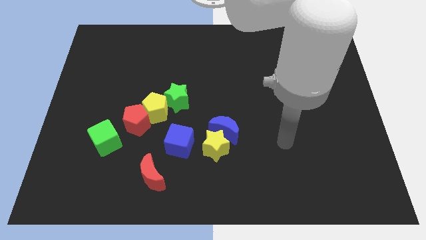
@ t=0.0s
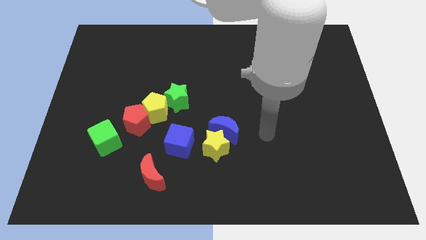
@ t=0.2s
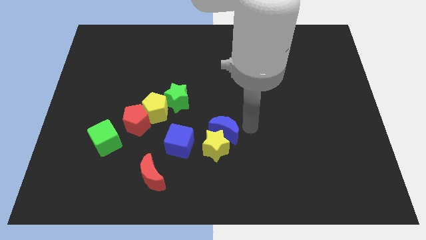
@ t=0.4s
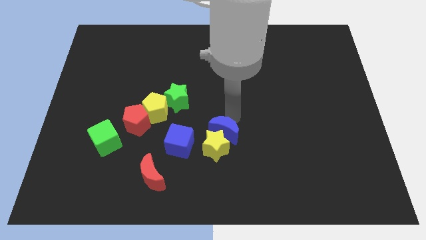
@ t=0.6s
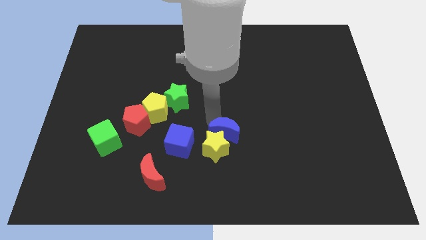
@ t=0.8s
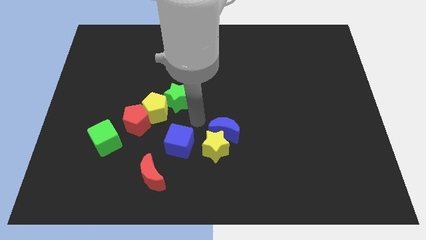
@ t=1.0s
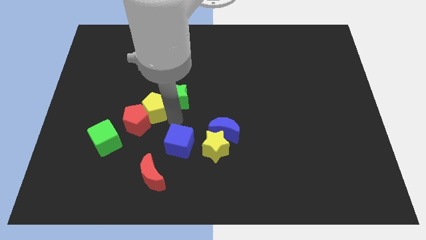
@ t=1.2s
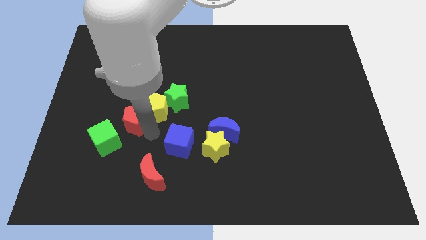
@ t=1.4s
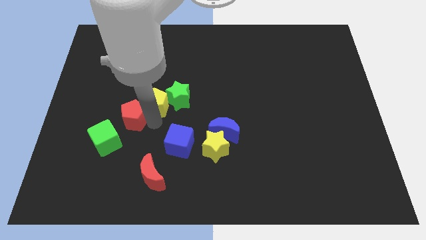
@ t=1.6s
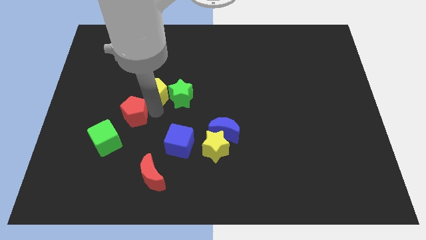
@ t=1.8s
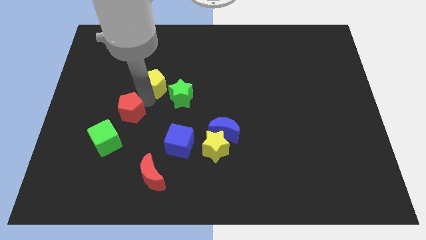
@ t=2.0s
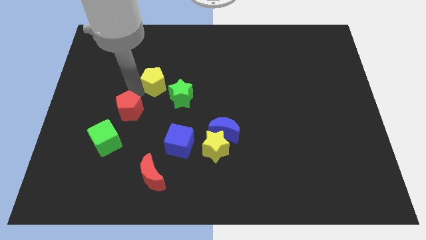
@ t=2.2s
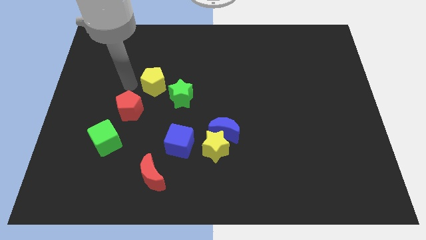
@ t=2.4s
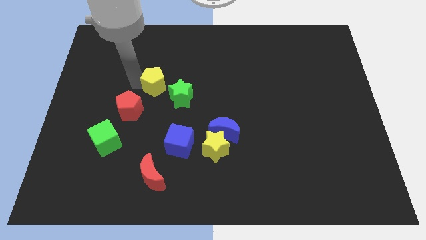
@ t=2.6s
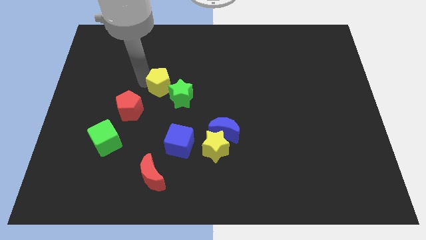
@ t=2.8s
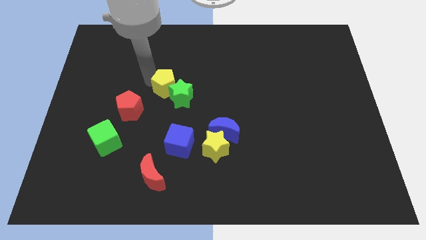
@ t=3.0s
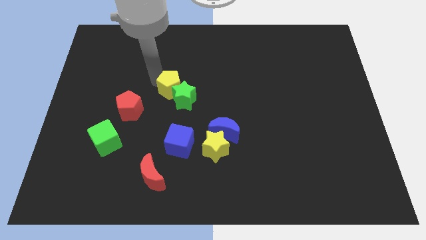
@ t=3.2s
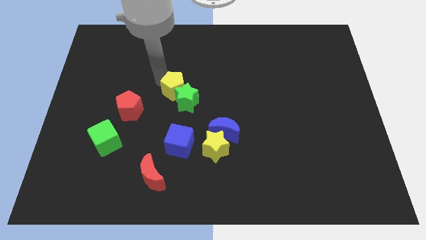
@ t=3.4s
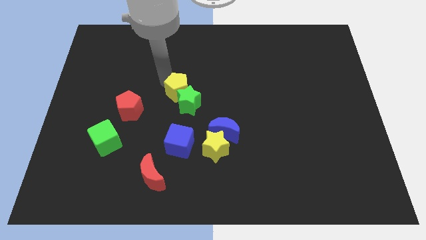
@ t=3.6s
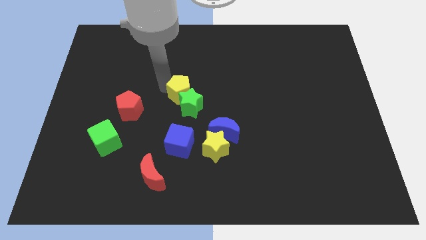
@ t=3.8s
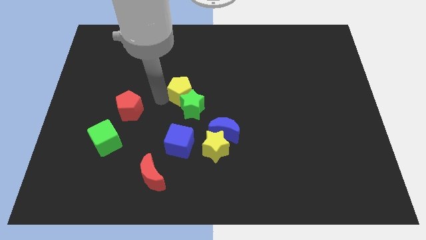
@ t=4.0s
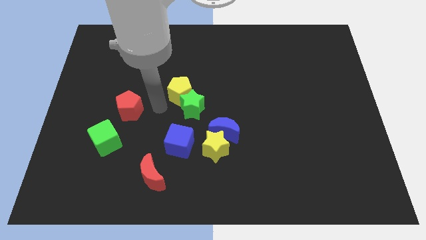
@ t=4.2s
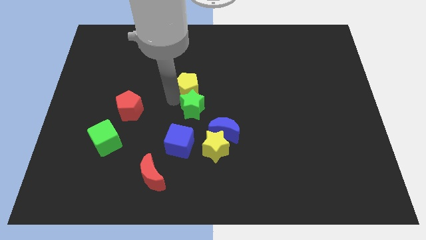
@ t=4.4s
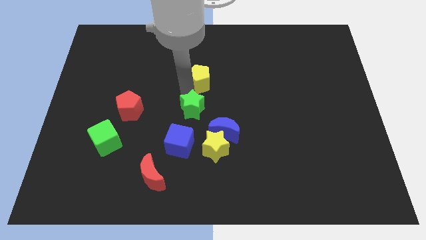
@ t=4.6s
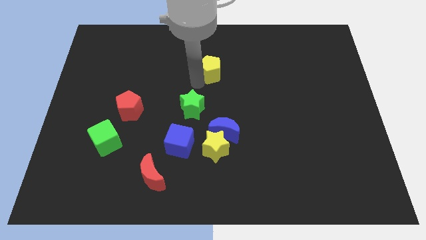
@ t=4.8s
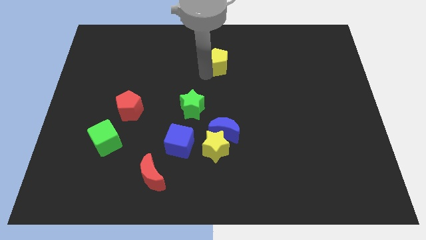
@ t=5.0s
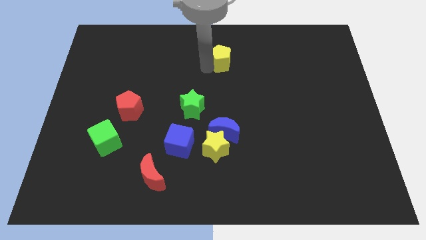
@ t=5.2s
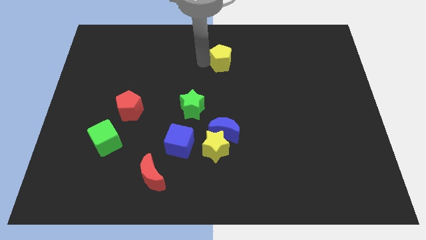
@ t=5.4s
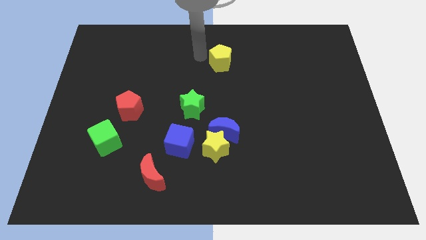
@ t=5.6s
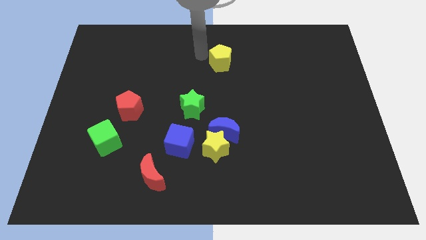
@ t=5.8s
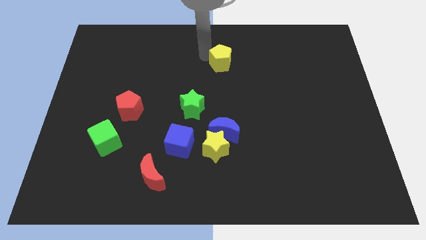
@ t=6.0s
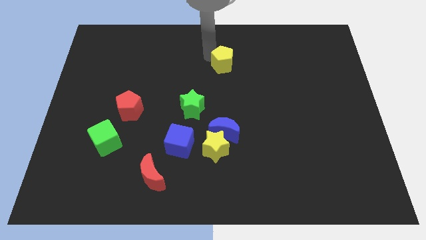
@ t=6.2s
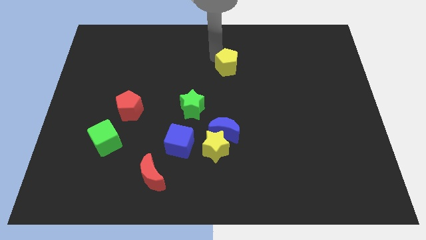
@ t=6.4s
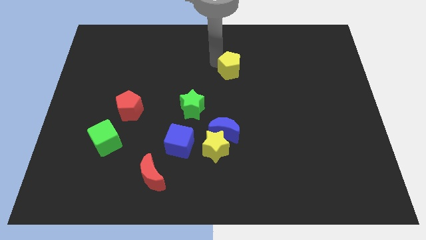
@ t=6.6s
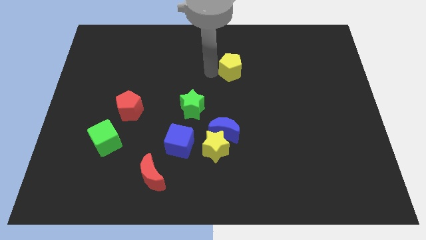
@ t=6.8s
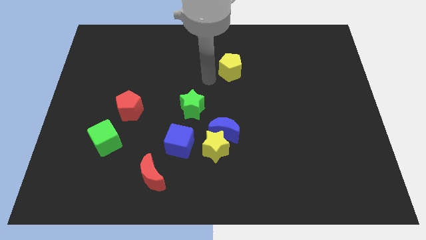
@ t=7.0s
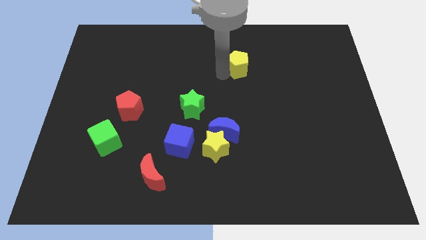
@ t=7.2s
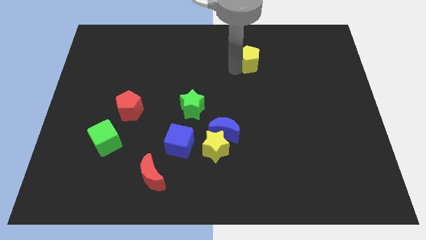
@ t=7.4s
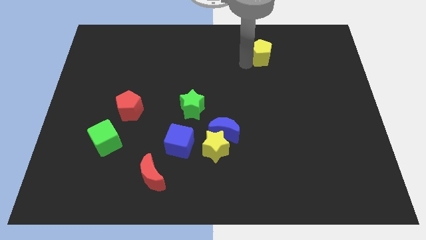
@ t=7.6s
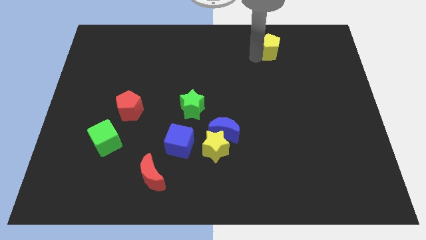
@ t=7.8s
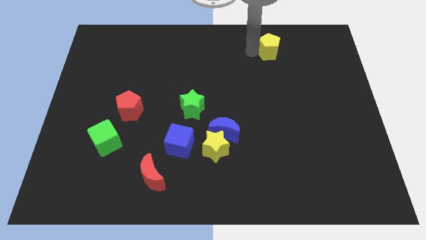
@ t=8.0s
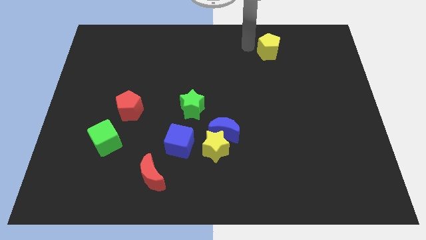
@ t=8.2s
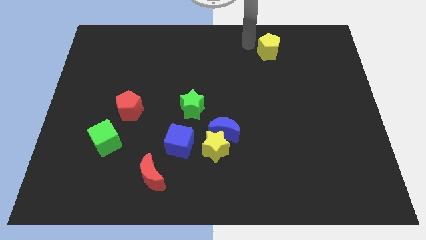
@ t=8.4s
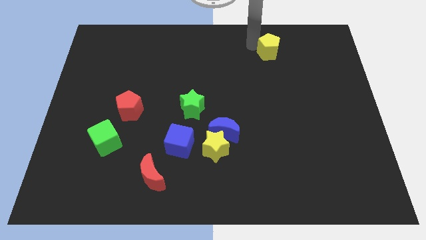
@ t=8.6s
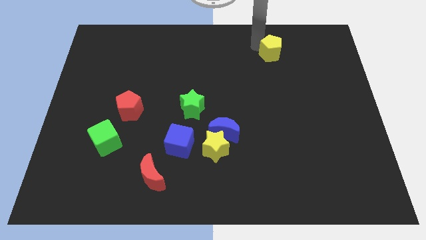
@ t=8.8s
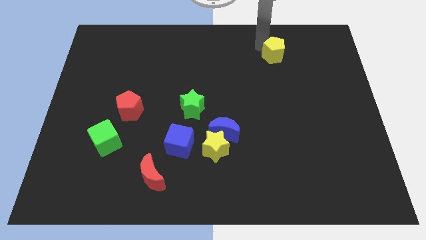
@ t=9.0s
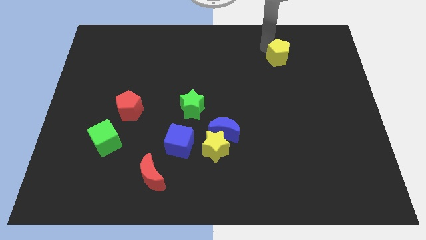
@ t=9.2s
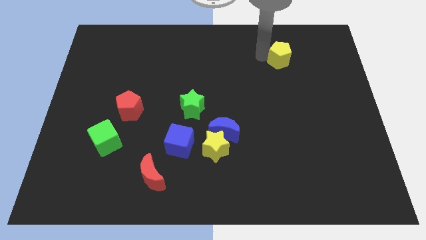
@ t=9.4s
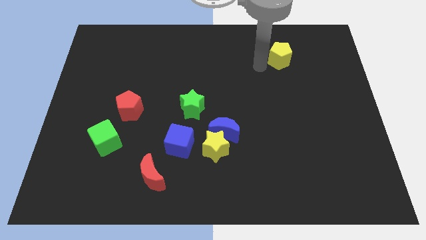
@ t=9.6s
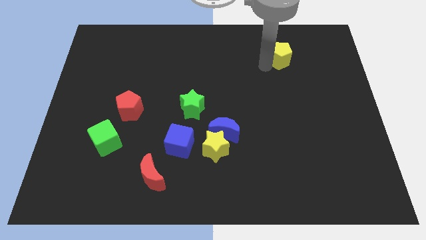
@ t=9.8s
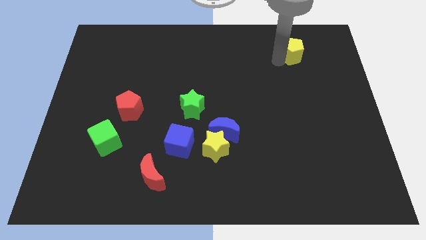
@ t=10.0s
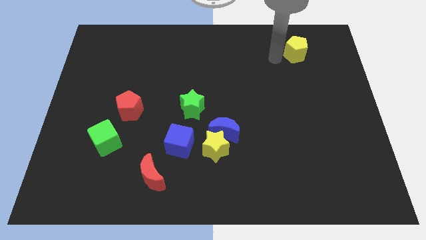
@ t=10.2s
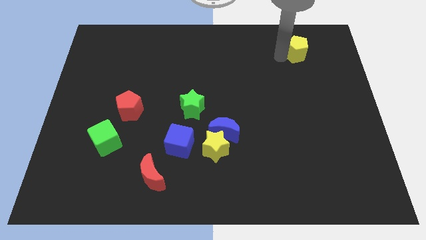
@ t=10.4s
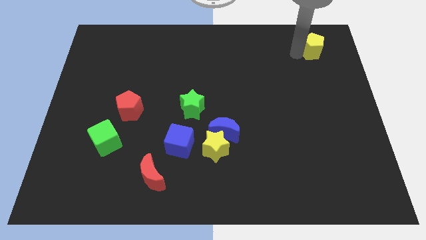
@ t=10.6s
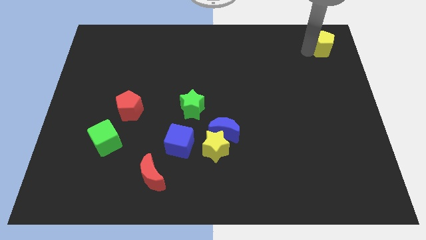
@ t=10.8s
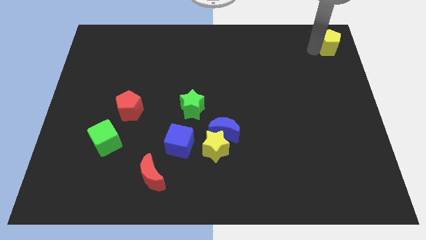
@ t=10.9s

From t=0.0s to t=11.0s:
put the yellow pentagon to the top right

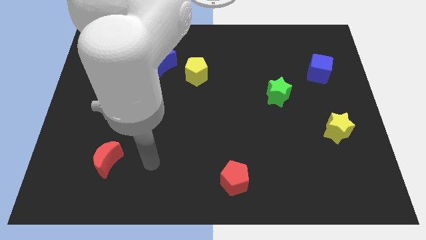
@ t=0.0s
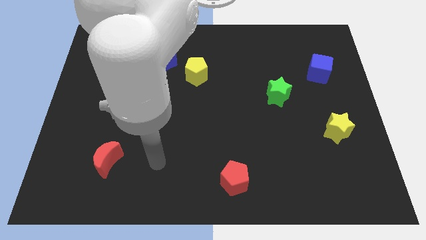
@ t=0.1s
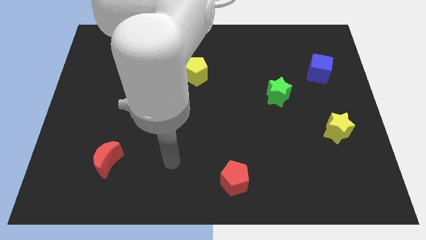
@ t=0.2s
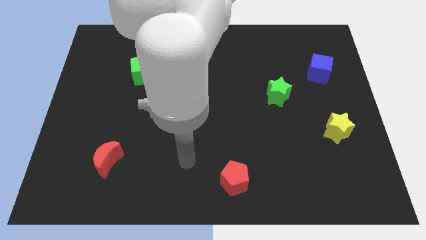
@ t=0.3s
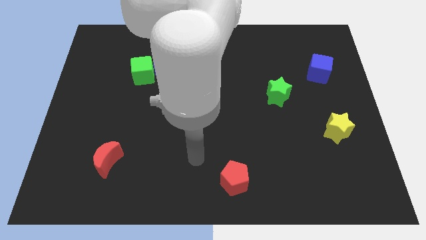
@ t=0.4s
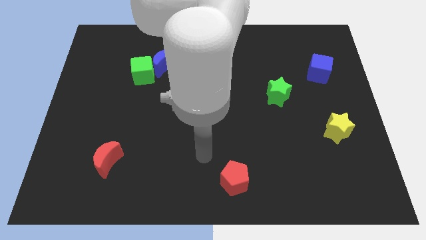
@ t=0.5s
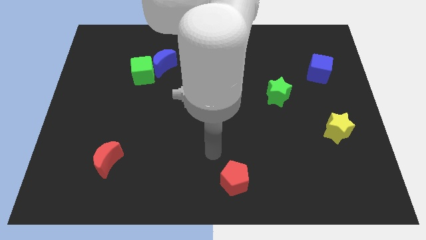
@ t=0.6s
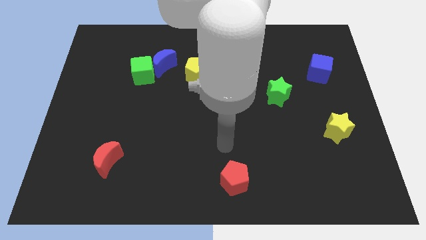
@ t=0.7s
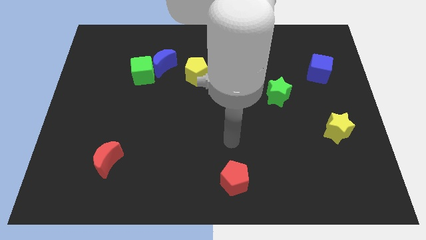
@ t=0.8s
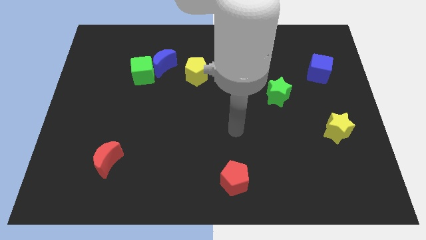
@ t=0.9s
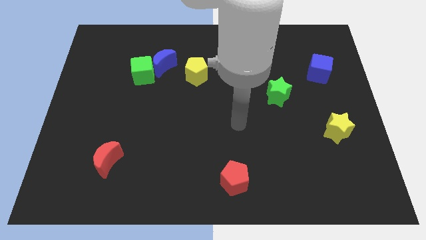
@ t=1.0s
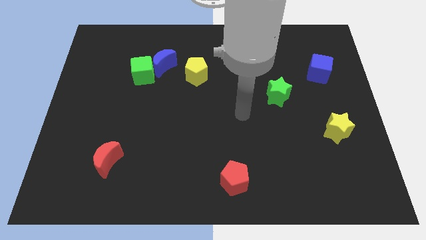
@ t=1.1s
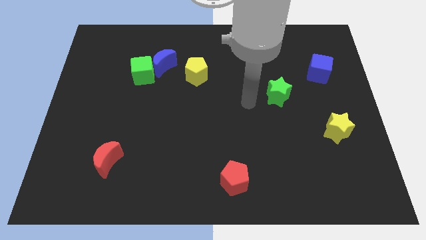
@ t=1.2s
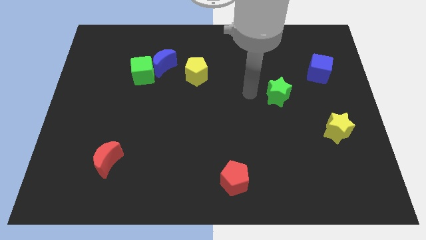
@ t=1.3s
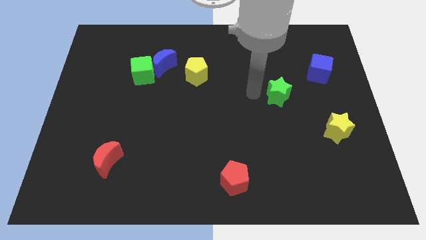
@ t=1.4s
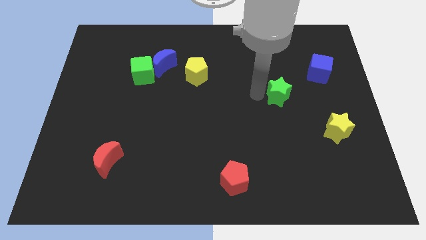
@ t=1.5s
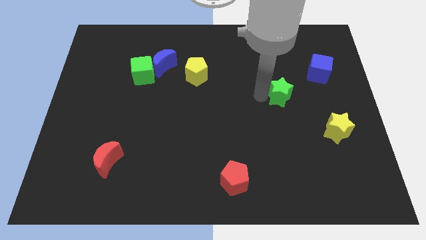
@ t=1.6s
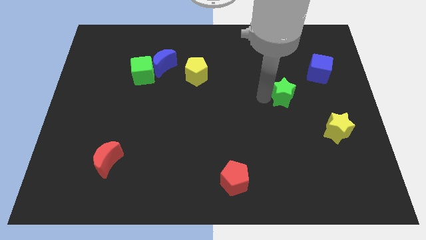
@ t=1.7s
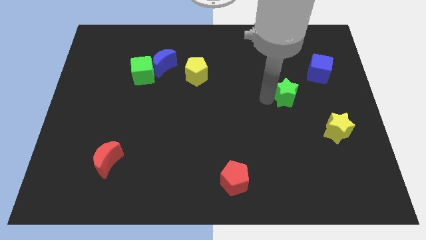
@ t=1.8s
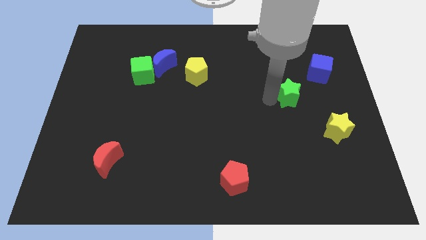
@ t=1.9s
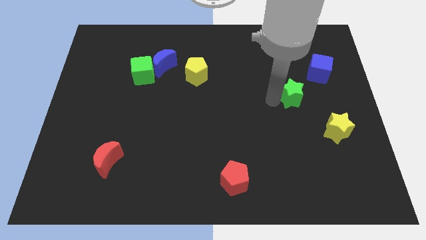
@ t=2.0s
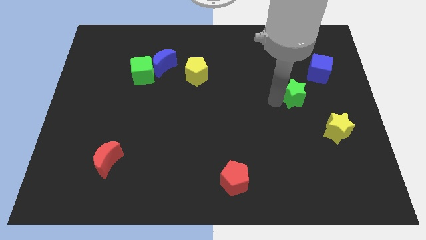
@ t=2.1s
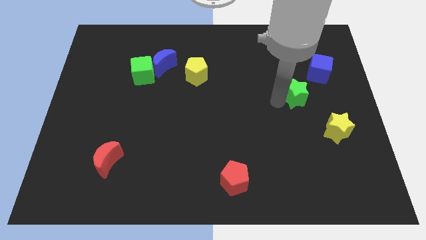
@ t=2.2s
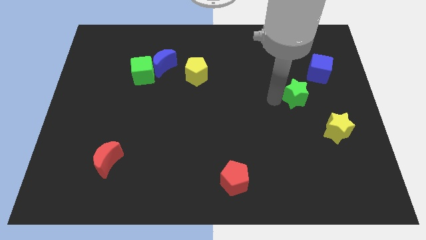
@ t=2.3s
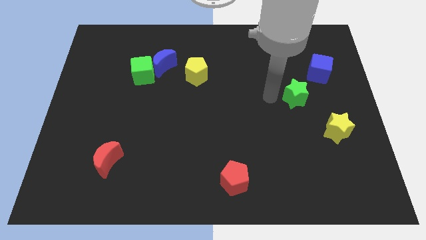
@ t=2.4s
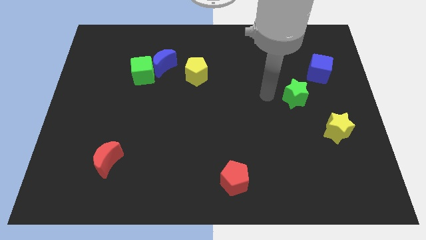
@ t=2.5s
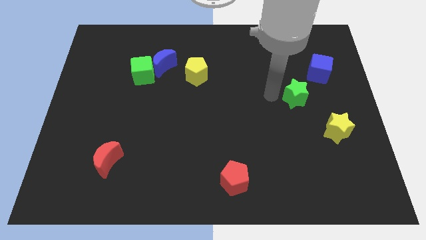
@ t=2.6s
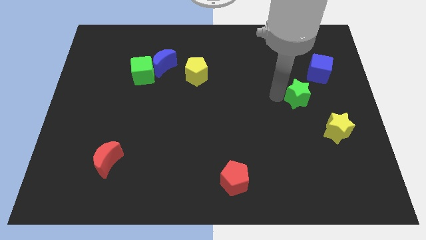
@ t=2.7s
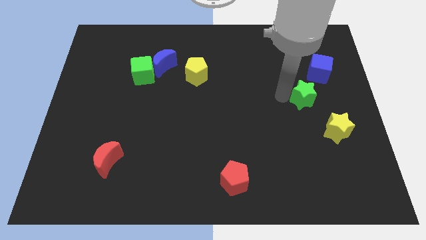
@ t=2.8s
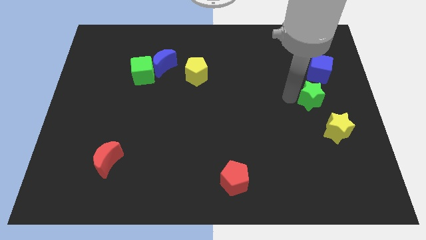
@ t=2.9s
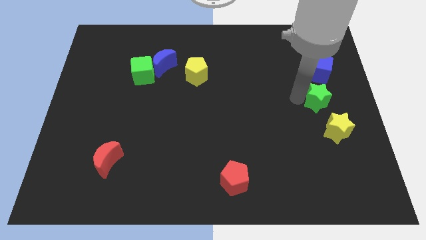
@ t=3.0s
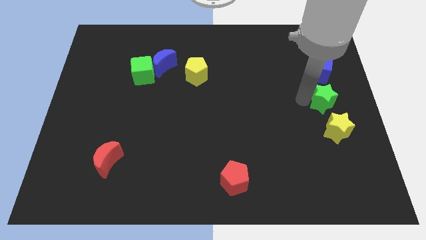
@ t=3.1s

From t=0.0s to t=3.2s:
move the green star to the right side of the board
